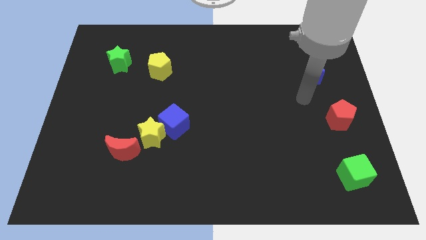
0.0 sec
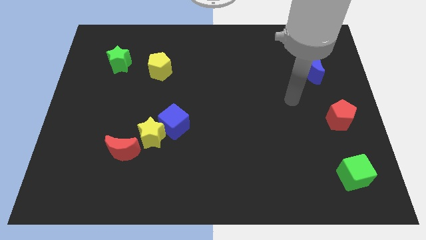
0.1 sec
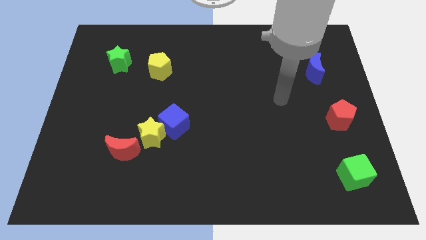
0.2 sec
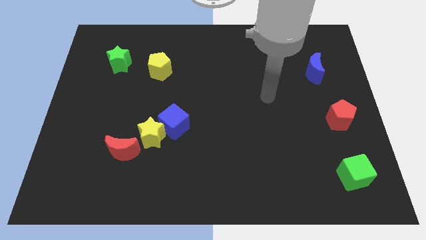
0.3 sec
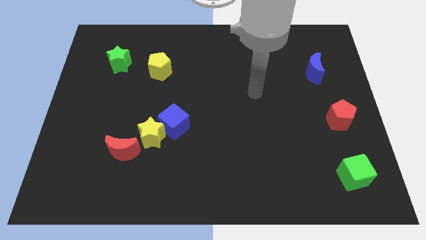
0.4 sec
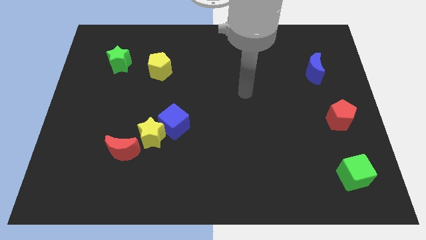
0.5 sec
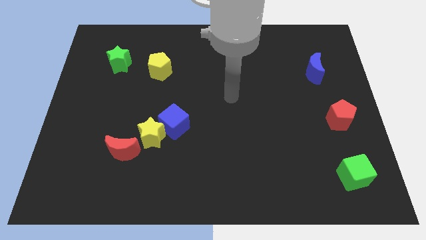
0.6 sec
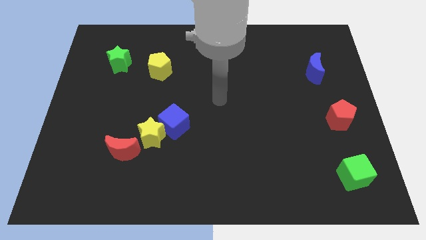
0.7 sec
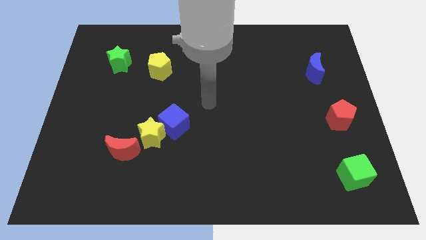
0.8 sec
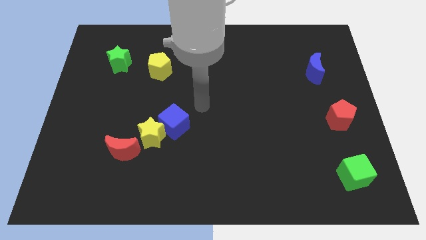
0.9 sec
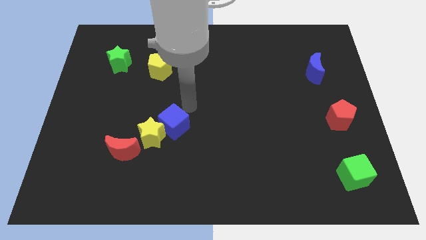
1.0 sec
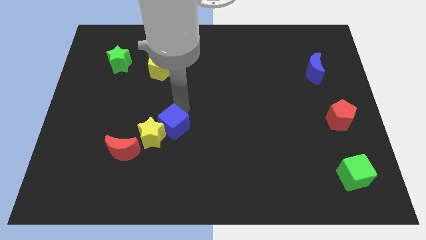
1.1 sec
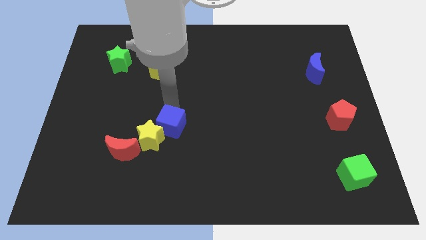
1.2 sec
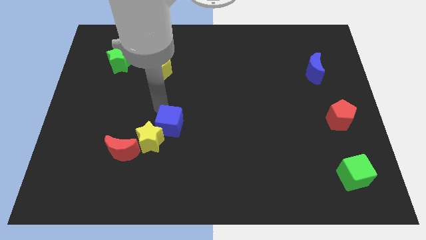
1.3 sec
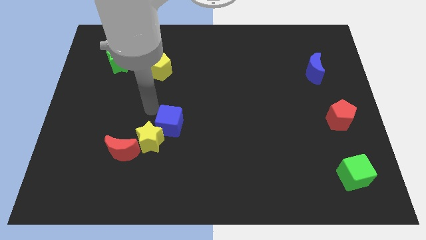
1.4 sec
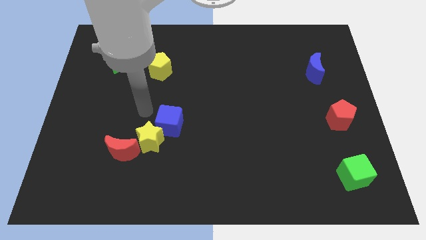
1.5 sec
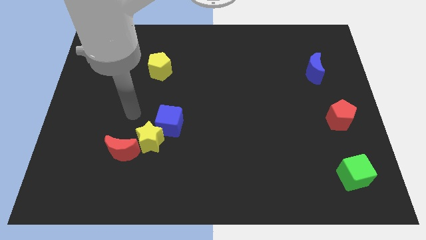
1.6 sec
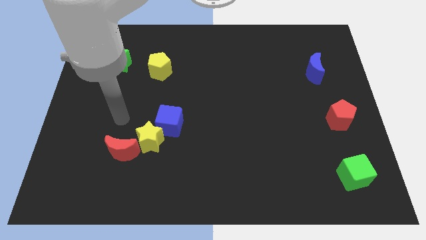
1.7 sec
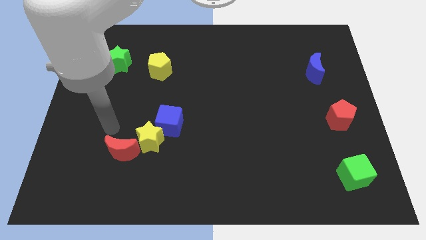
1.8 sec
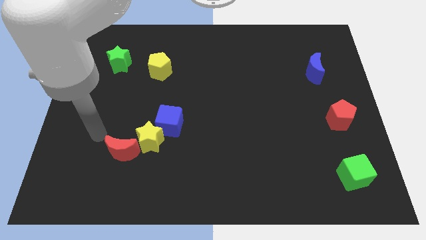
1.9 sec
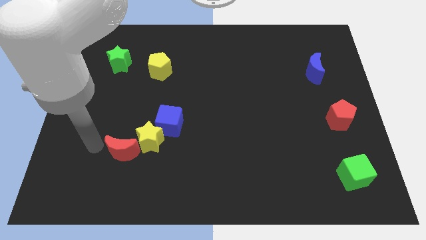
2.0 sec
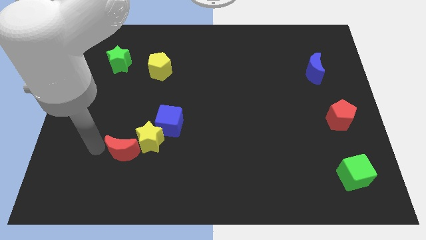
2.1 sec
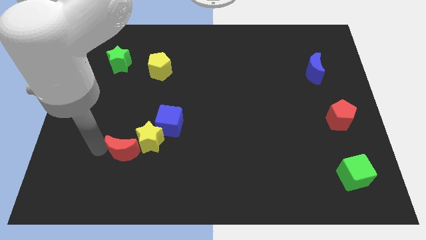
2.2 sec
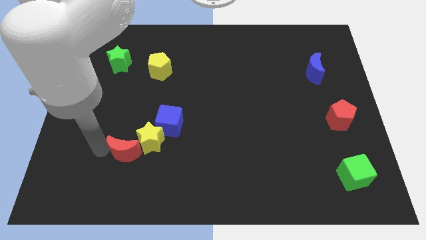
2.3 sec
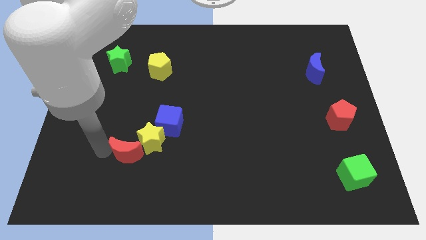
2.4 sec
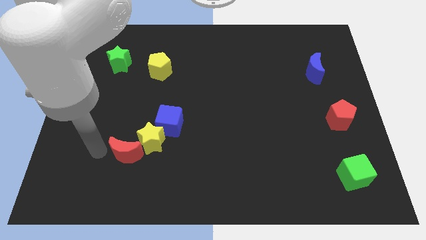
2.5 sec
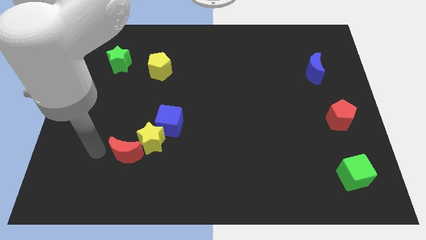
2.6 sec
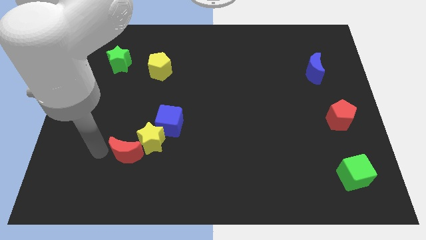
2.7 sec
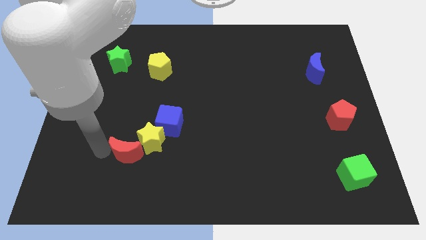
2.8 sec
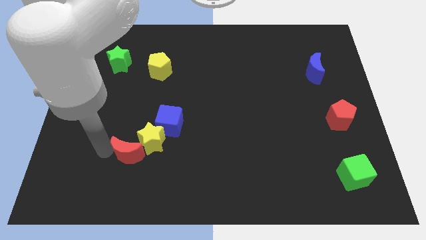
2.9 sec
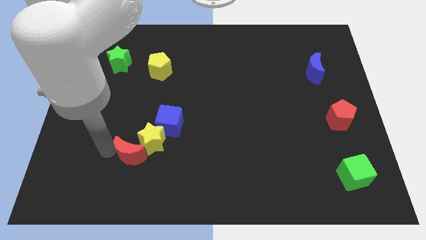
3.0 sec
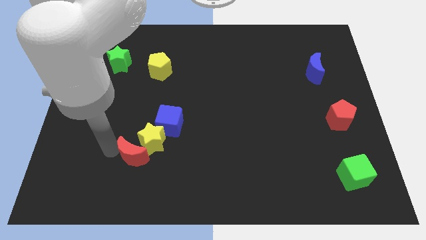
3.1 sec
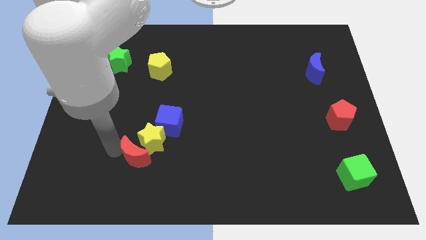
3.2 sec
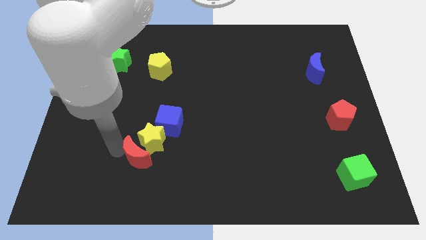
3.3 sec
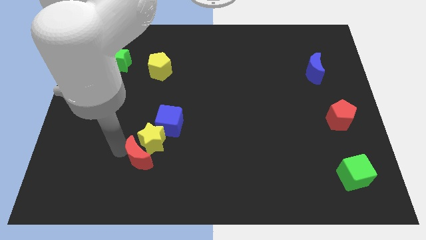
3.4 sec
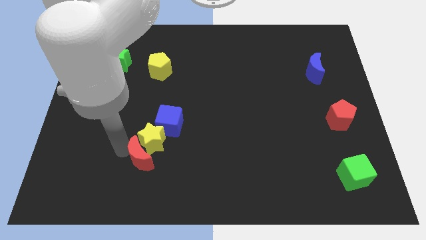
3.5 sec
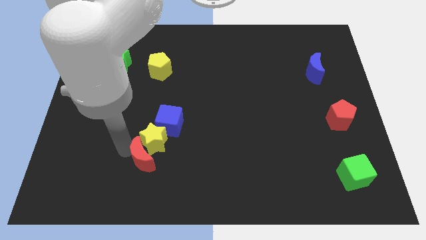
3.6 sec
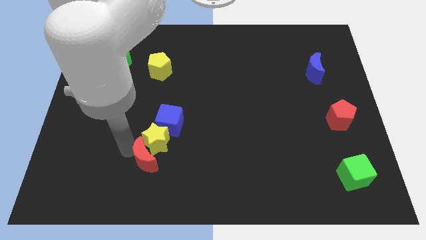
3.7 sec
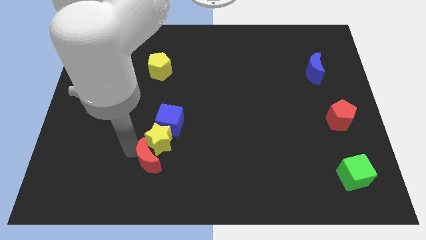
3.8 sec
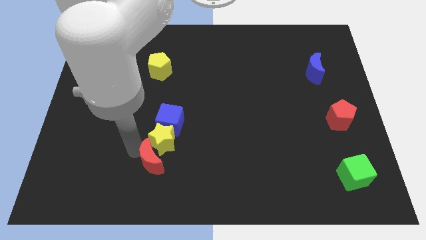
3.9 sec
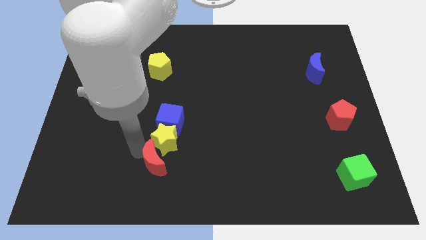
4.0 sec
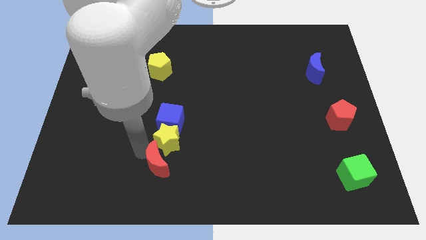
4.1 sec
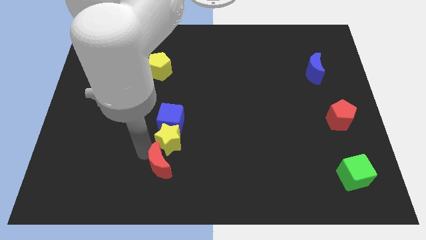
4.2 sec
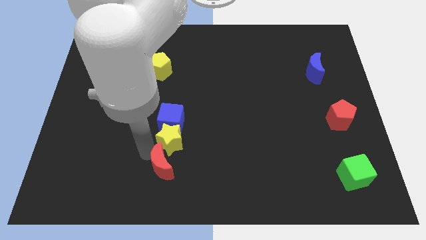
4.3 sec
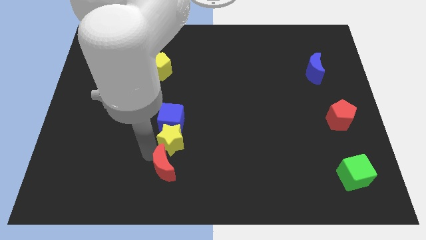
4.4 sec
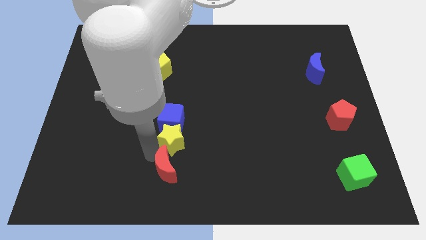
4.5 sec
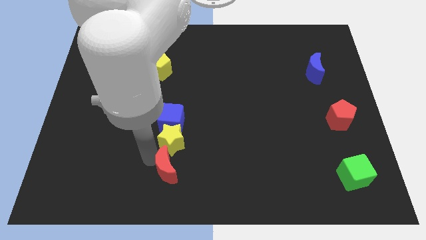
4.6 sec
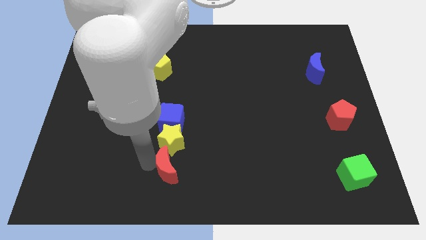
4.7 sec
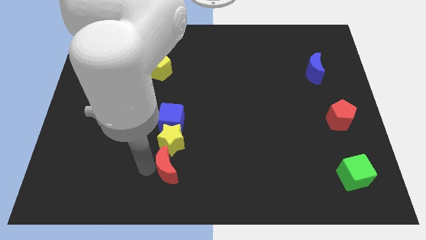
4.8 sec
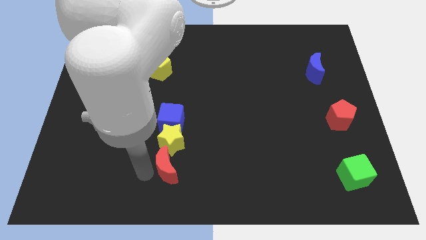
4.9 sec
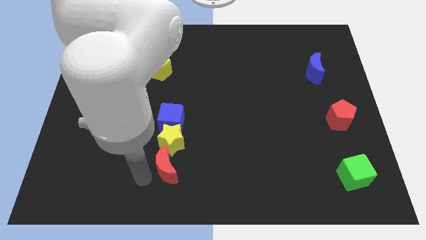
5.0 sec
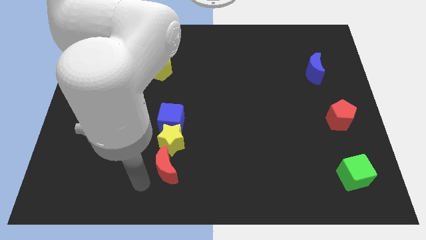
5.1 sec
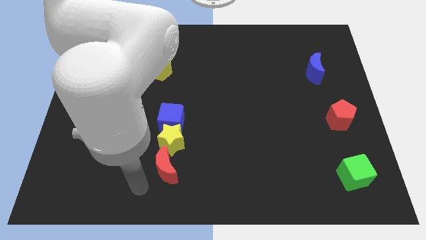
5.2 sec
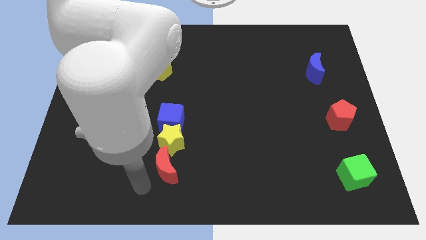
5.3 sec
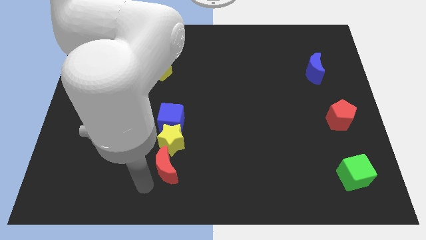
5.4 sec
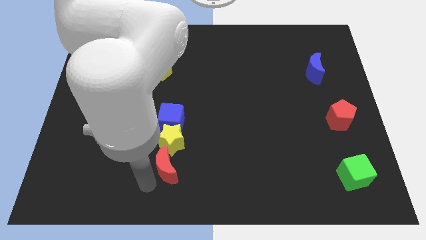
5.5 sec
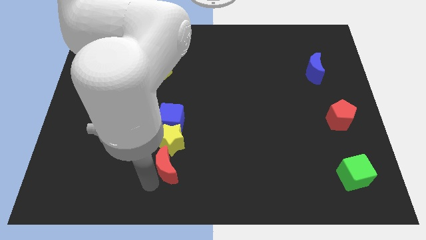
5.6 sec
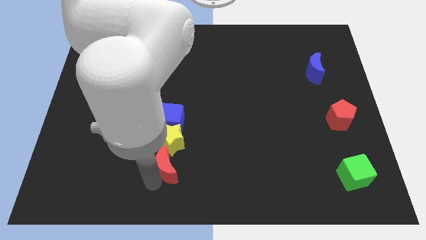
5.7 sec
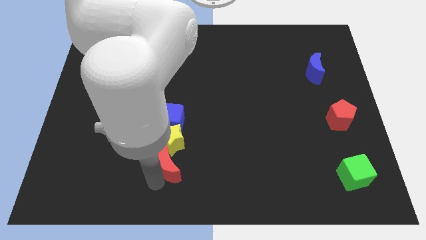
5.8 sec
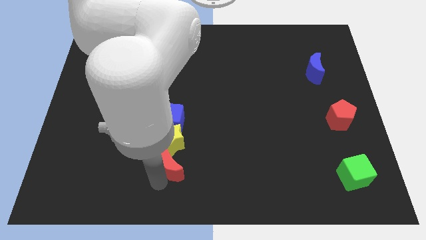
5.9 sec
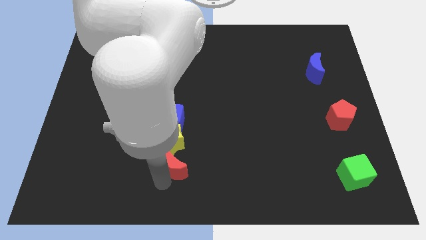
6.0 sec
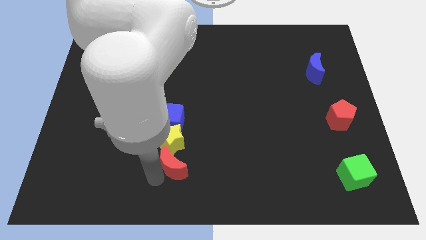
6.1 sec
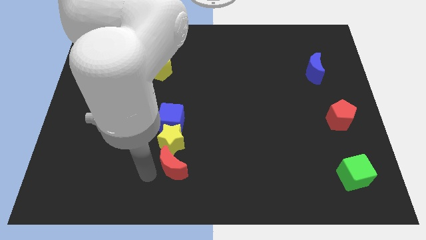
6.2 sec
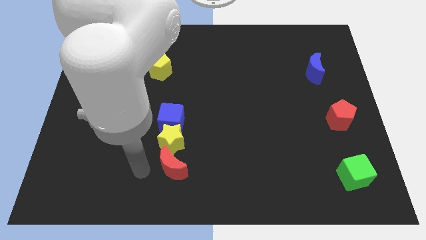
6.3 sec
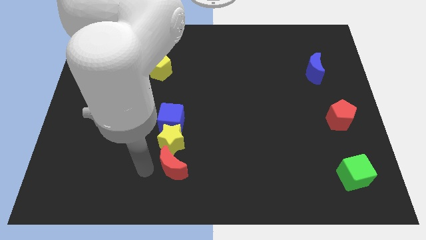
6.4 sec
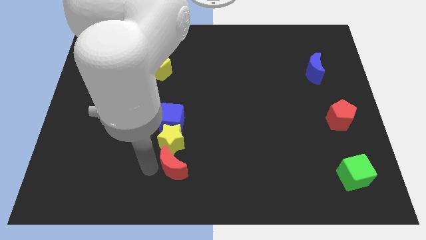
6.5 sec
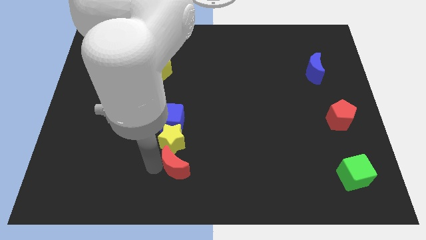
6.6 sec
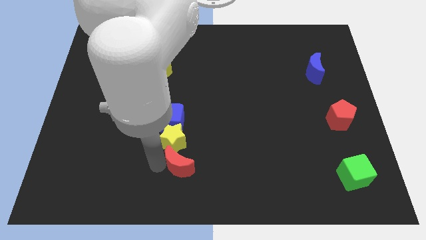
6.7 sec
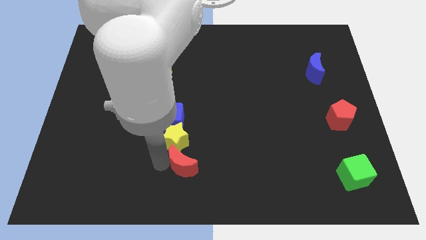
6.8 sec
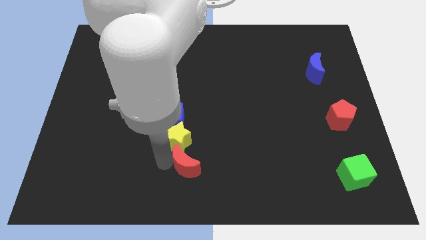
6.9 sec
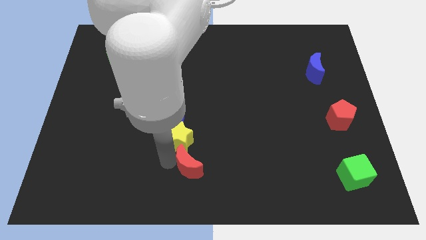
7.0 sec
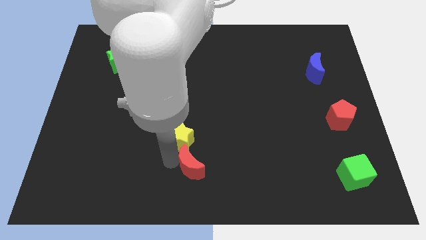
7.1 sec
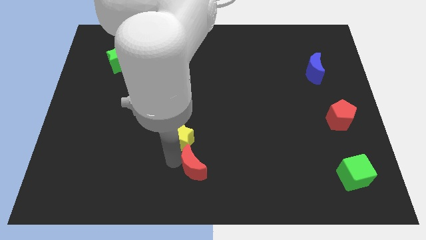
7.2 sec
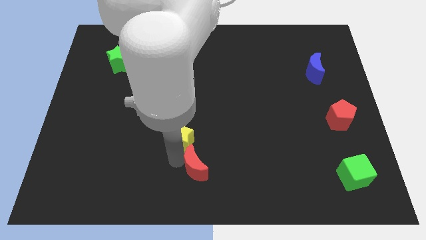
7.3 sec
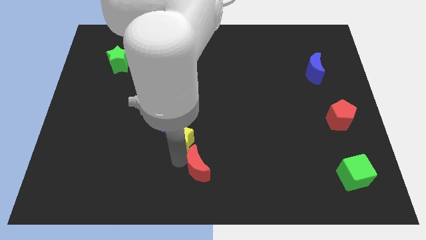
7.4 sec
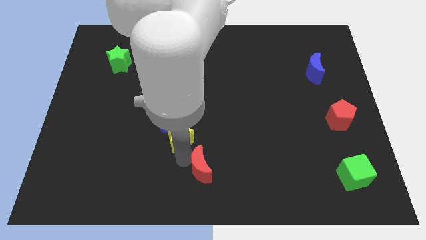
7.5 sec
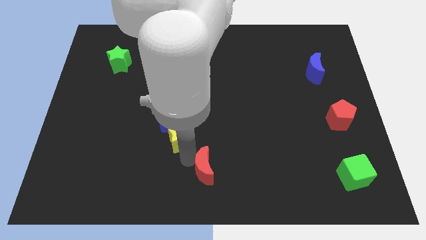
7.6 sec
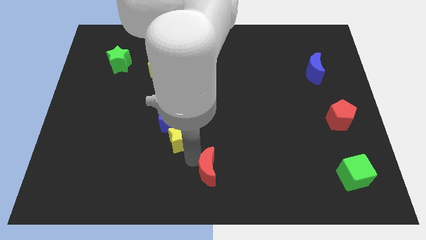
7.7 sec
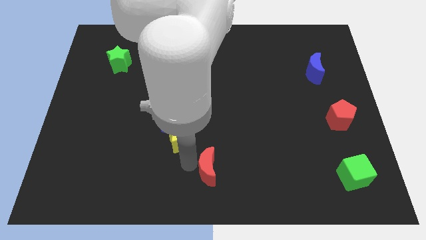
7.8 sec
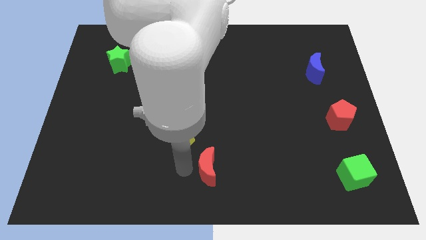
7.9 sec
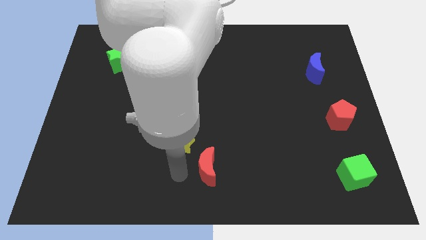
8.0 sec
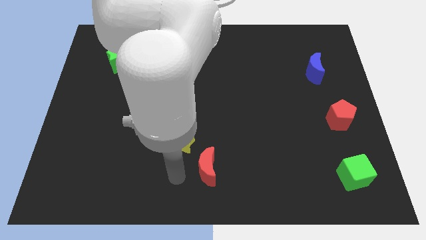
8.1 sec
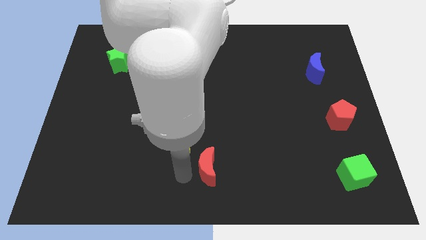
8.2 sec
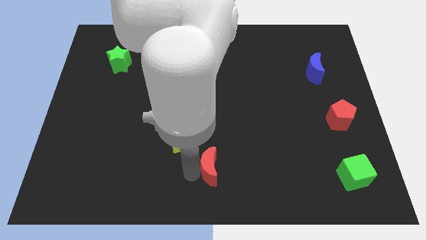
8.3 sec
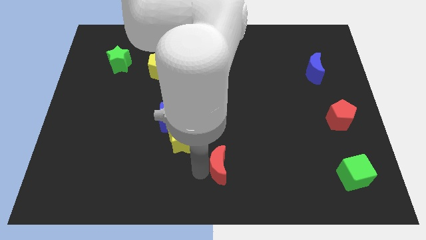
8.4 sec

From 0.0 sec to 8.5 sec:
slide the red moon to the right
